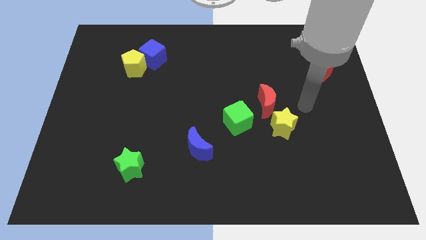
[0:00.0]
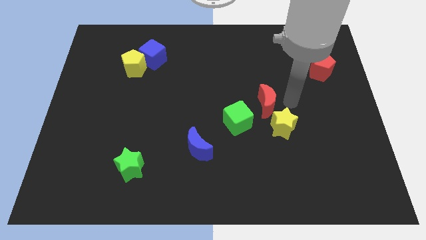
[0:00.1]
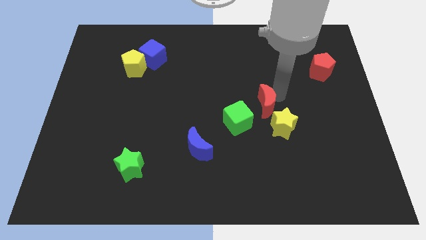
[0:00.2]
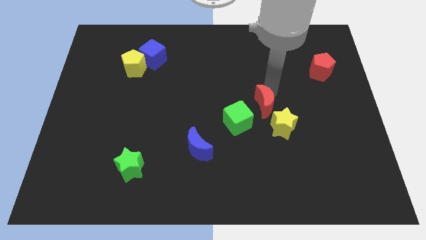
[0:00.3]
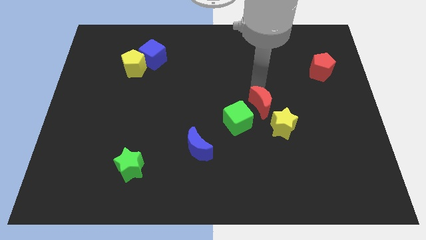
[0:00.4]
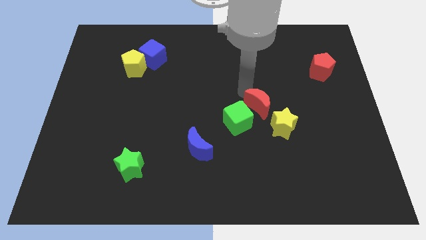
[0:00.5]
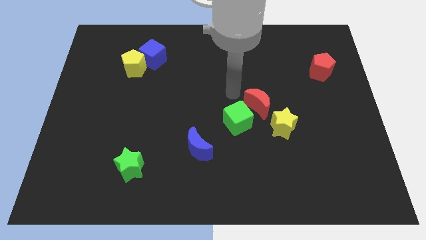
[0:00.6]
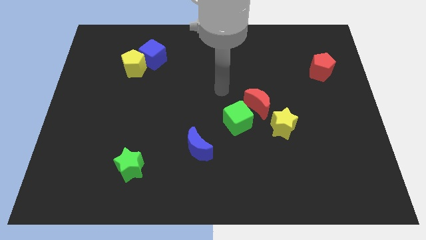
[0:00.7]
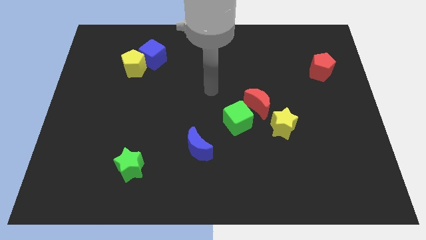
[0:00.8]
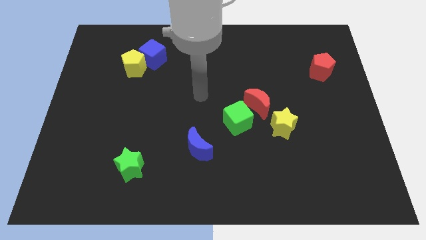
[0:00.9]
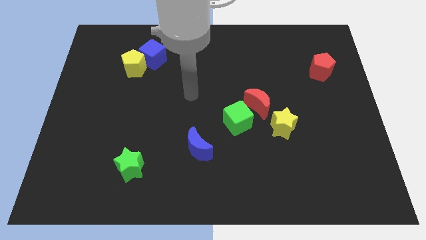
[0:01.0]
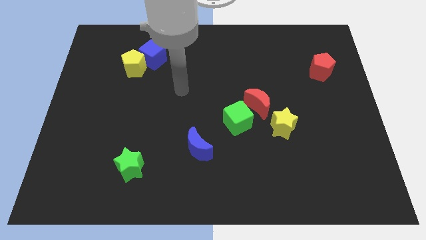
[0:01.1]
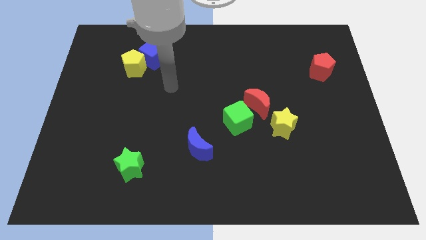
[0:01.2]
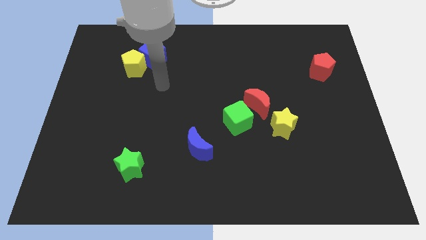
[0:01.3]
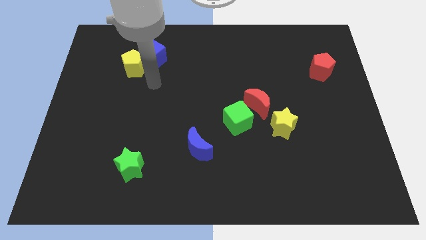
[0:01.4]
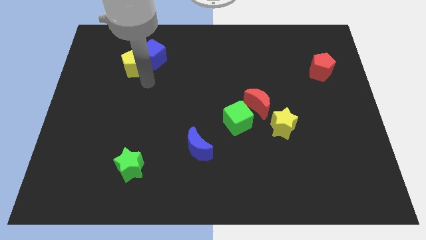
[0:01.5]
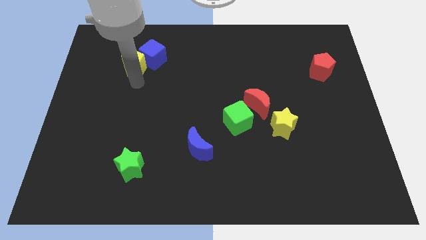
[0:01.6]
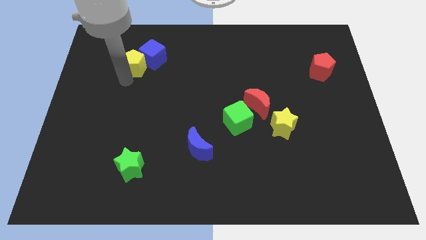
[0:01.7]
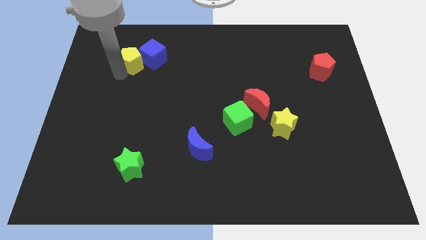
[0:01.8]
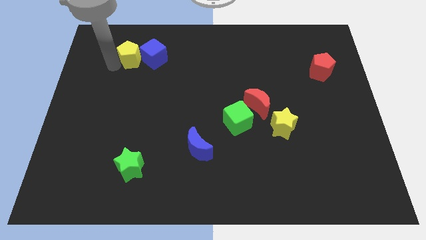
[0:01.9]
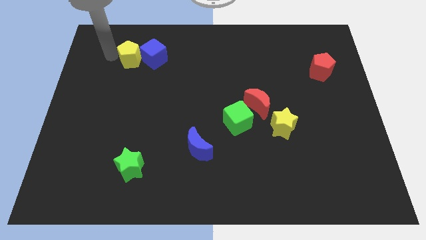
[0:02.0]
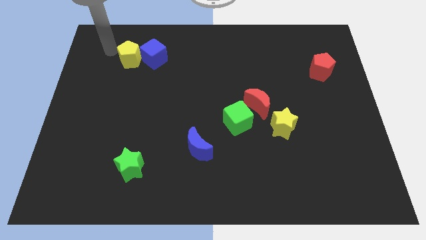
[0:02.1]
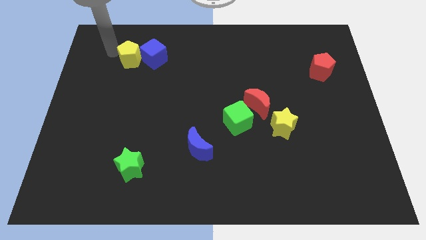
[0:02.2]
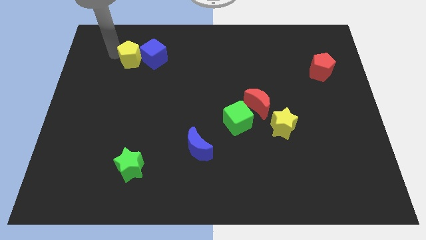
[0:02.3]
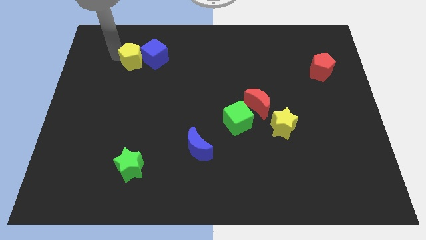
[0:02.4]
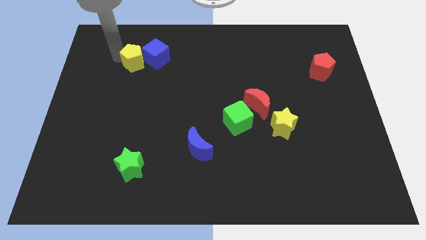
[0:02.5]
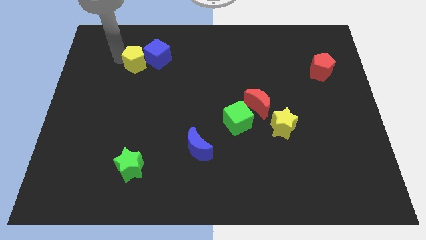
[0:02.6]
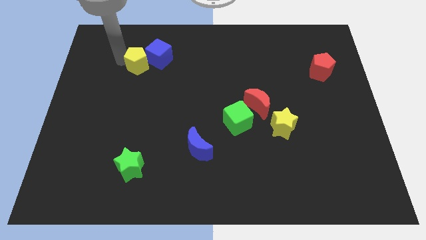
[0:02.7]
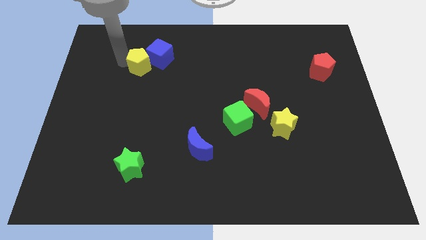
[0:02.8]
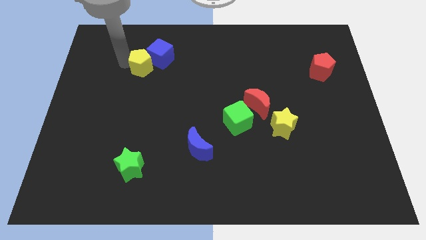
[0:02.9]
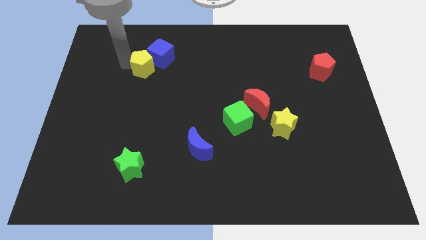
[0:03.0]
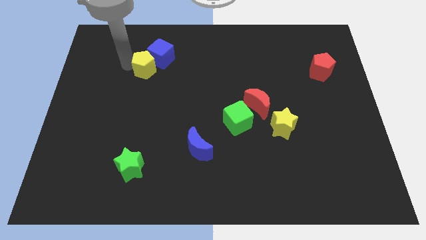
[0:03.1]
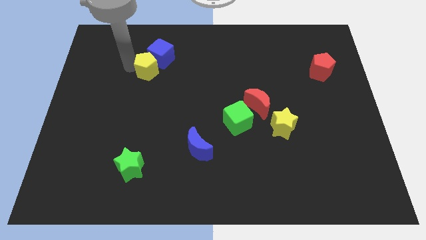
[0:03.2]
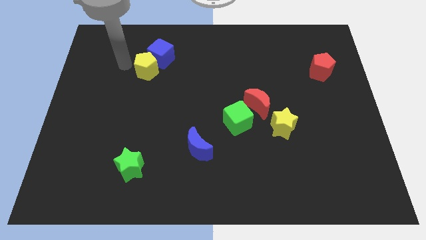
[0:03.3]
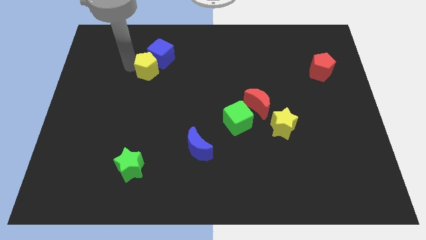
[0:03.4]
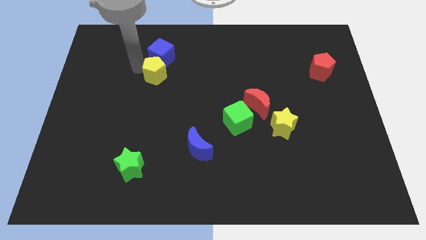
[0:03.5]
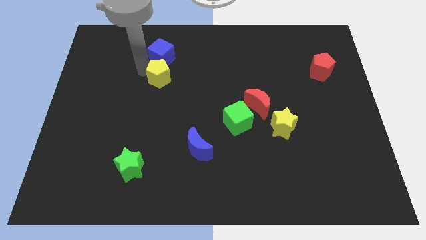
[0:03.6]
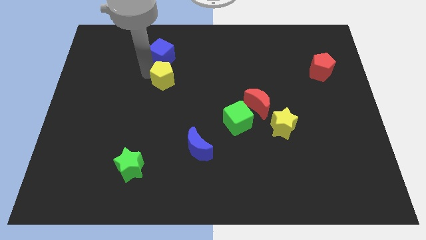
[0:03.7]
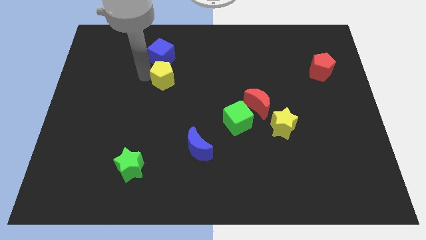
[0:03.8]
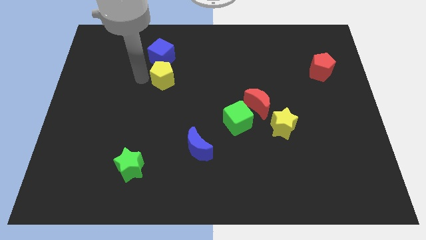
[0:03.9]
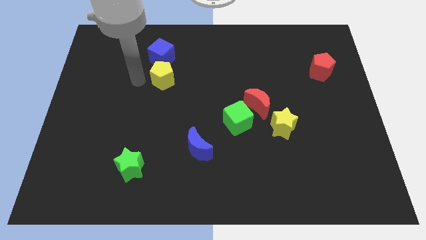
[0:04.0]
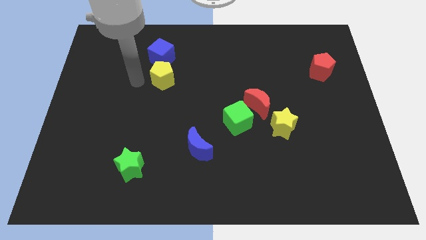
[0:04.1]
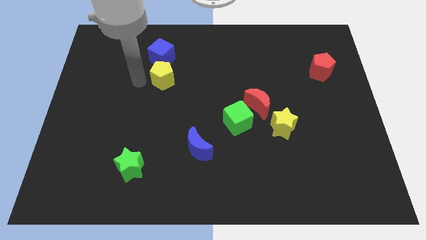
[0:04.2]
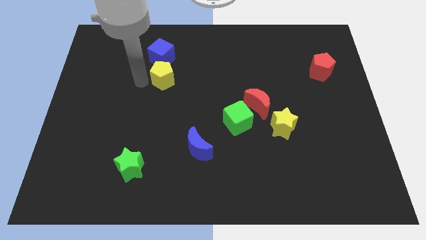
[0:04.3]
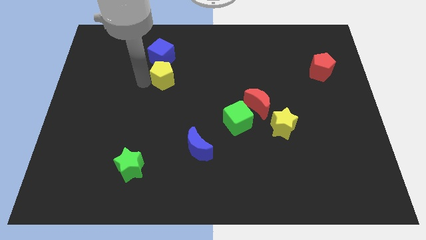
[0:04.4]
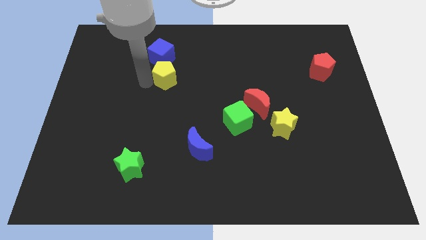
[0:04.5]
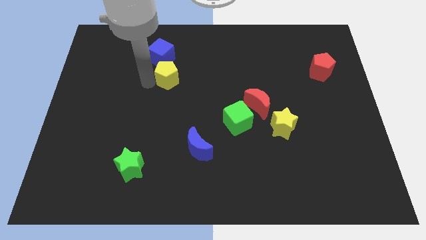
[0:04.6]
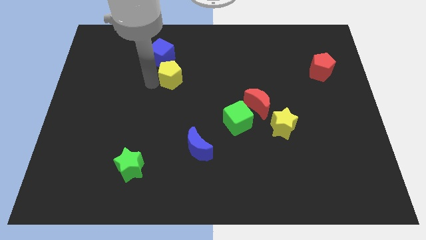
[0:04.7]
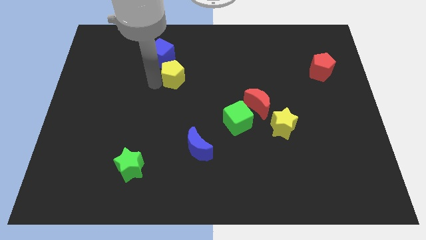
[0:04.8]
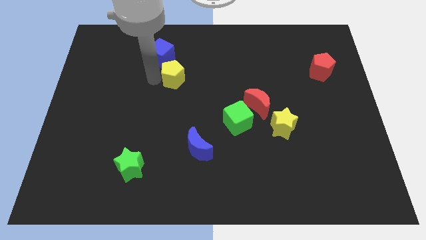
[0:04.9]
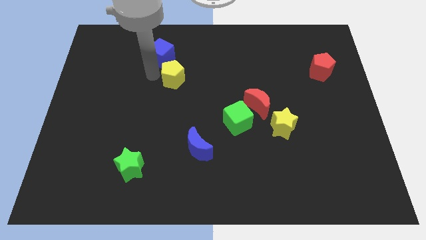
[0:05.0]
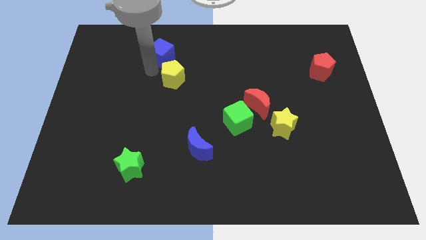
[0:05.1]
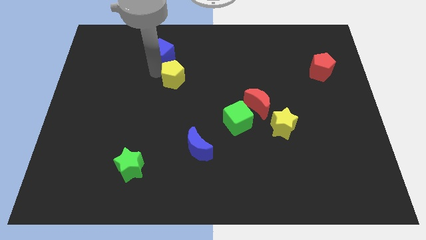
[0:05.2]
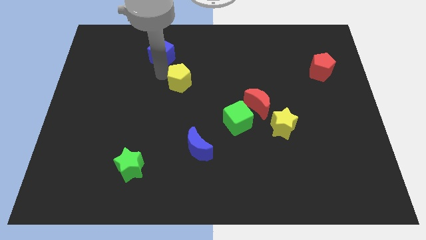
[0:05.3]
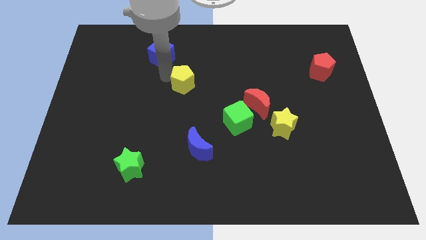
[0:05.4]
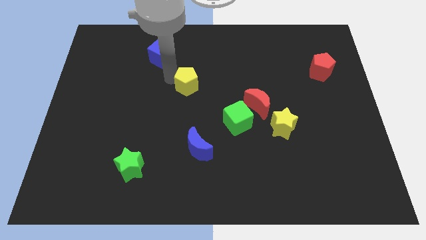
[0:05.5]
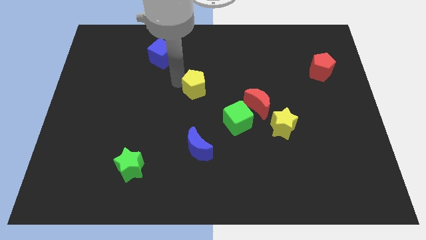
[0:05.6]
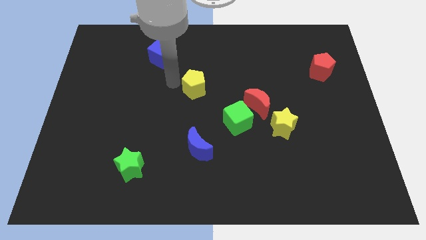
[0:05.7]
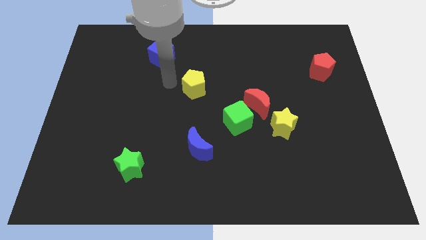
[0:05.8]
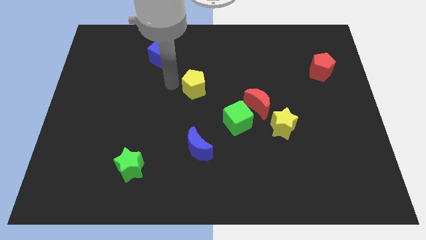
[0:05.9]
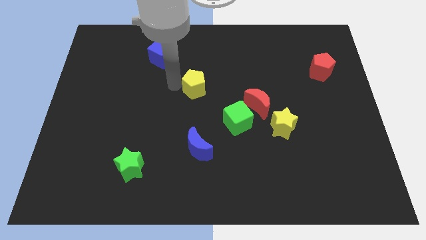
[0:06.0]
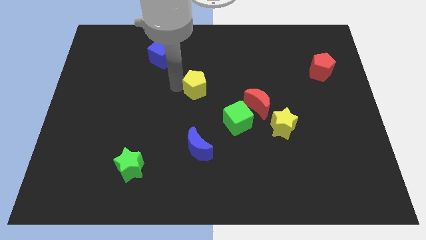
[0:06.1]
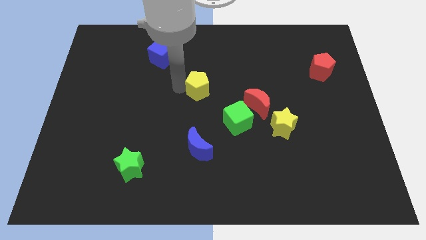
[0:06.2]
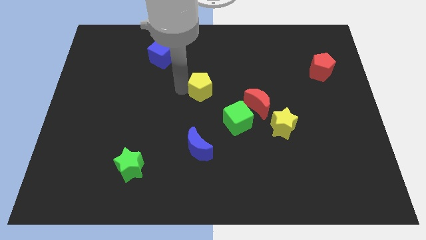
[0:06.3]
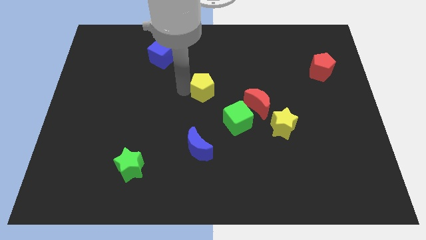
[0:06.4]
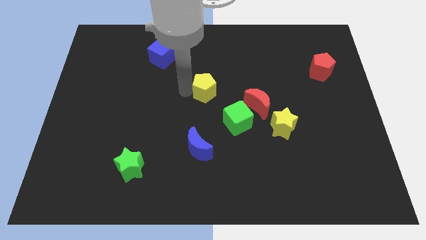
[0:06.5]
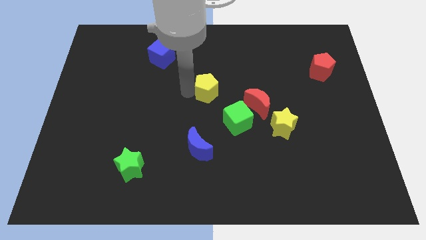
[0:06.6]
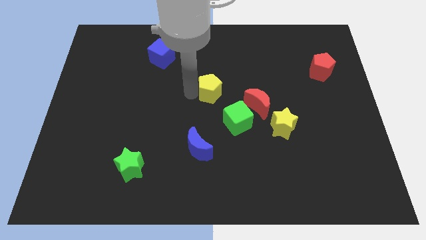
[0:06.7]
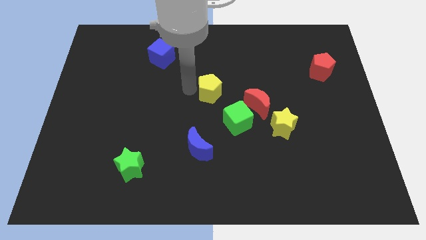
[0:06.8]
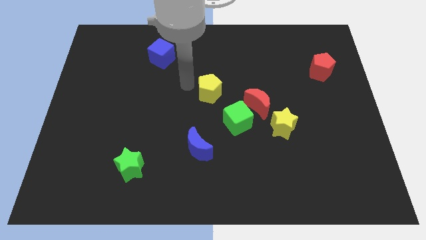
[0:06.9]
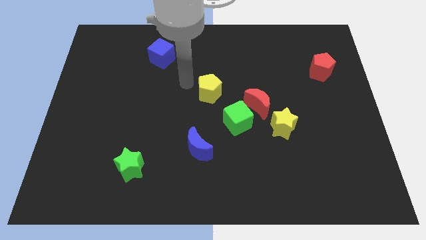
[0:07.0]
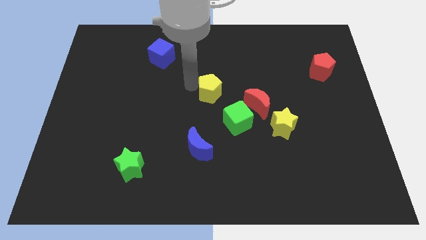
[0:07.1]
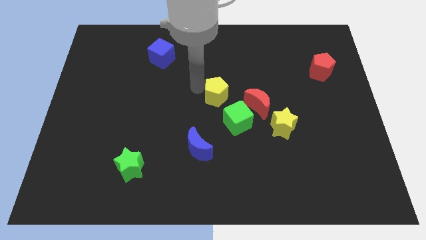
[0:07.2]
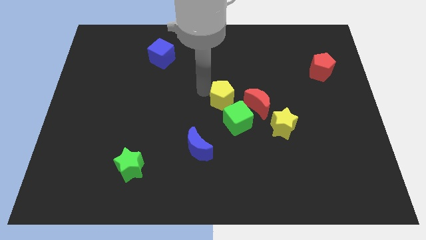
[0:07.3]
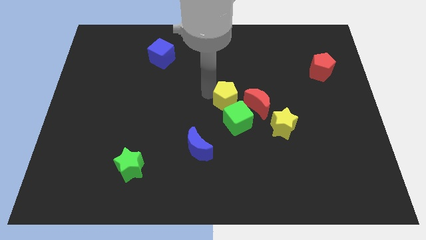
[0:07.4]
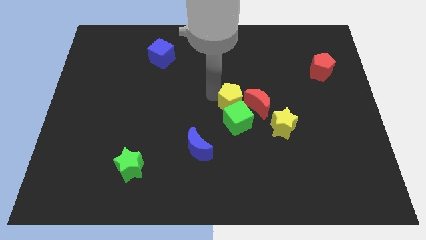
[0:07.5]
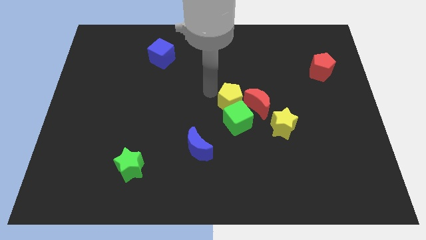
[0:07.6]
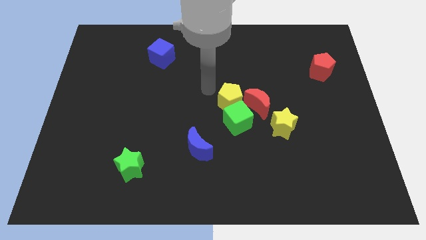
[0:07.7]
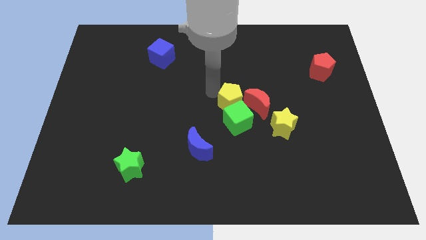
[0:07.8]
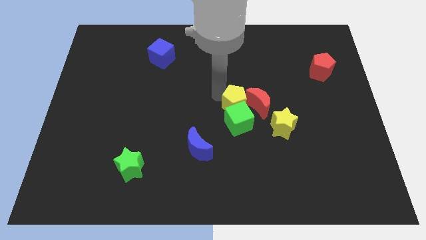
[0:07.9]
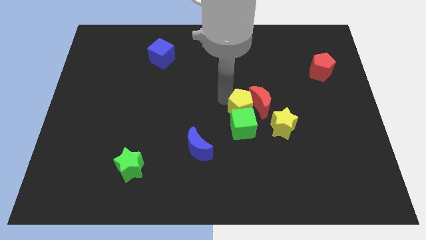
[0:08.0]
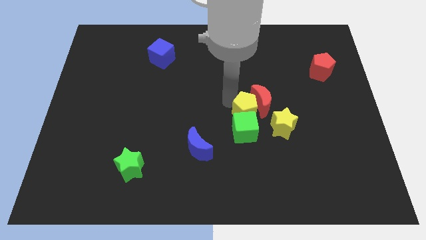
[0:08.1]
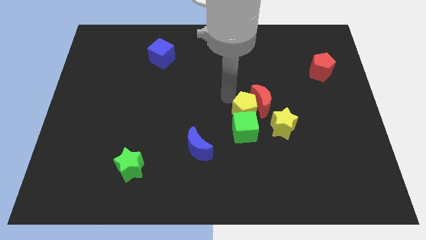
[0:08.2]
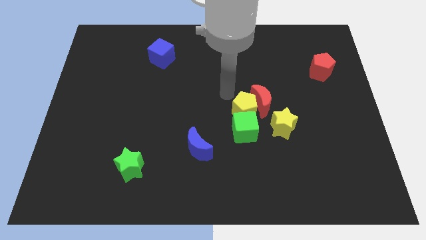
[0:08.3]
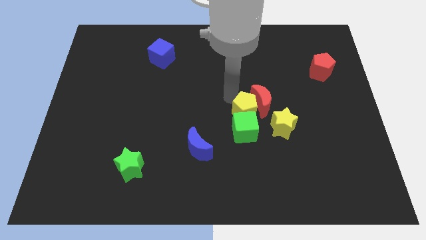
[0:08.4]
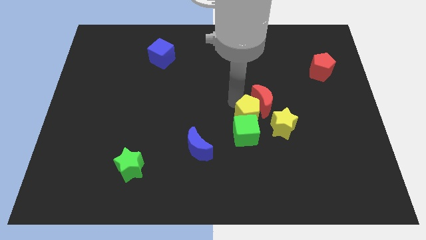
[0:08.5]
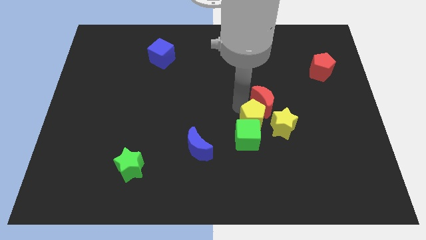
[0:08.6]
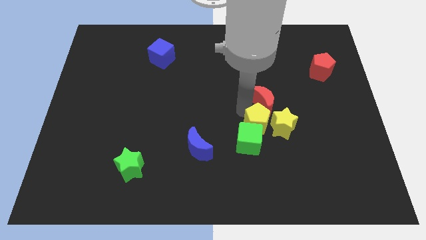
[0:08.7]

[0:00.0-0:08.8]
push the yellow pentagon to the yellow star
